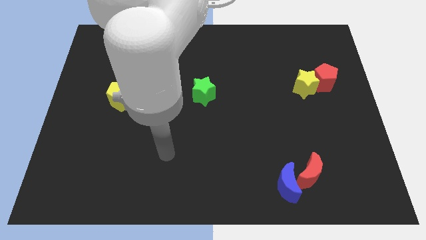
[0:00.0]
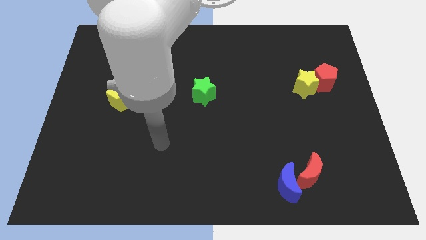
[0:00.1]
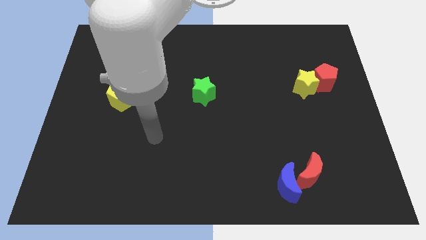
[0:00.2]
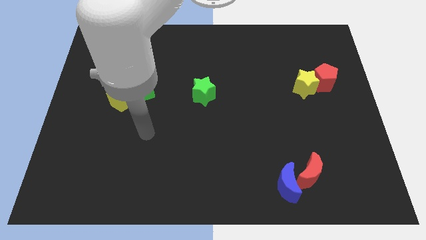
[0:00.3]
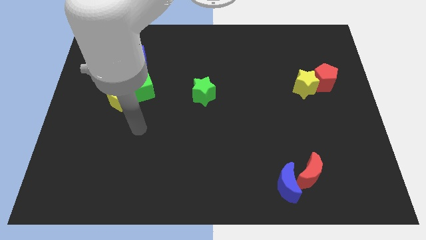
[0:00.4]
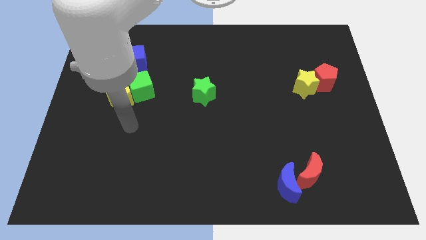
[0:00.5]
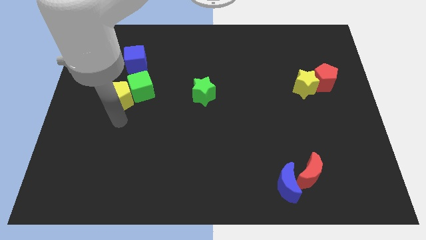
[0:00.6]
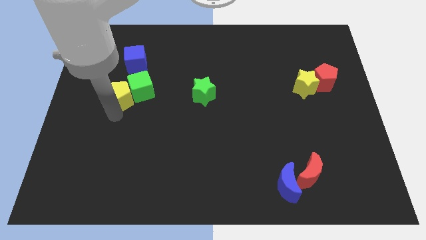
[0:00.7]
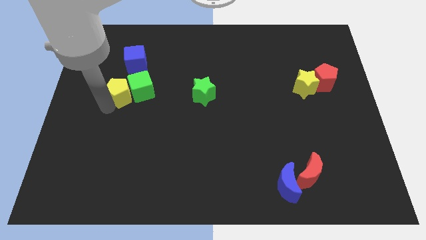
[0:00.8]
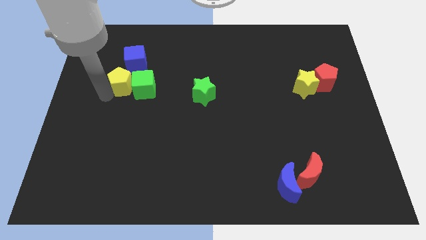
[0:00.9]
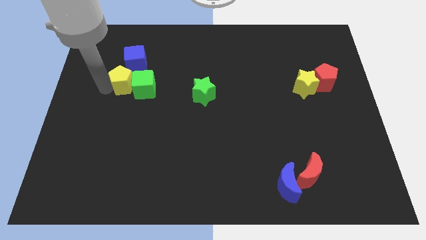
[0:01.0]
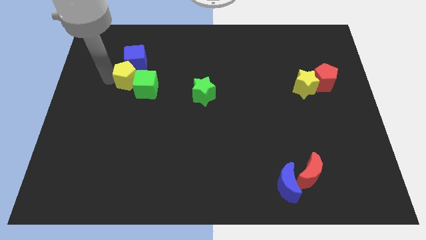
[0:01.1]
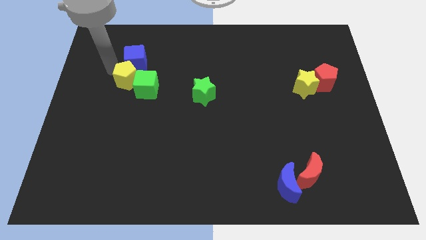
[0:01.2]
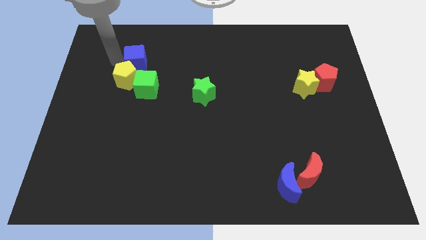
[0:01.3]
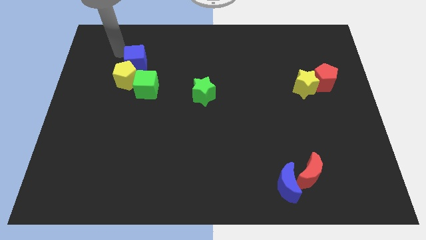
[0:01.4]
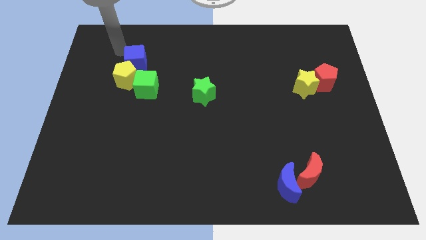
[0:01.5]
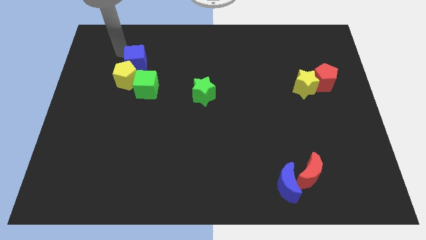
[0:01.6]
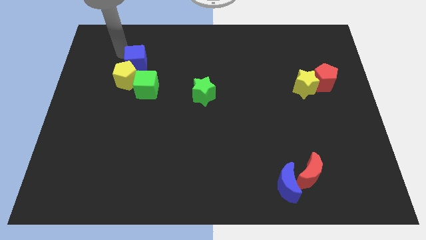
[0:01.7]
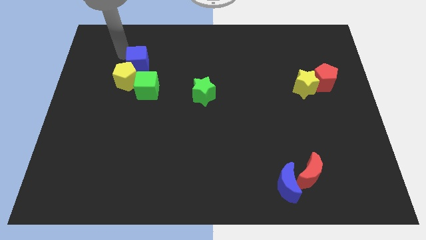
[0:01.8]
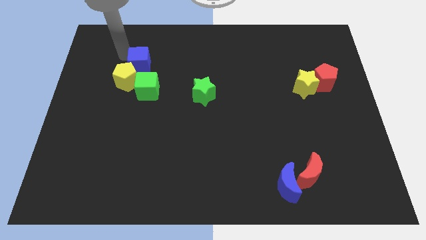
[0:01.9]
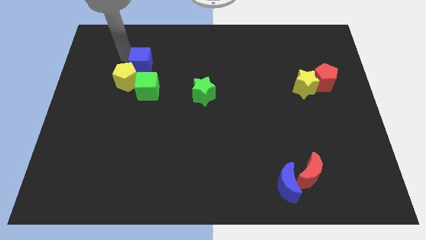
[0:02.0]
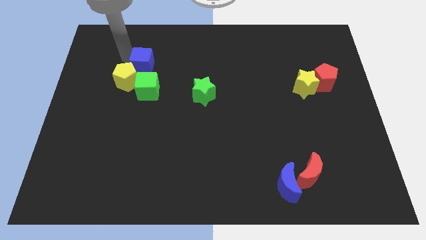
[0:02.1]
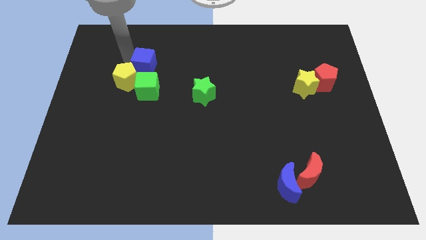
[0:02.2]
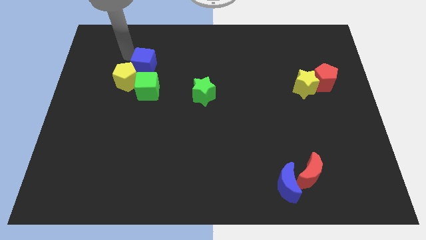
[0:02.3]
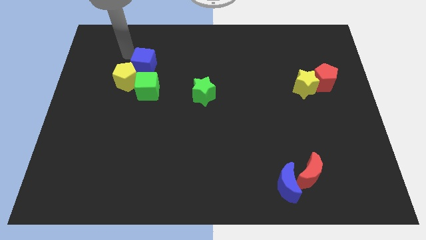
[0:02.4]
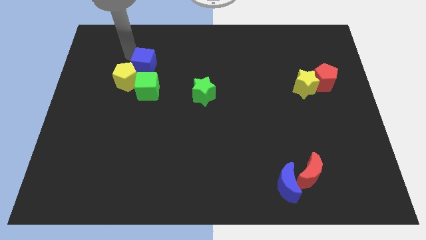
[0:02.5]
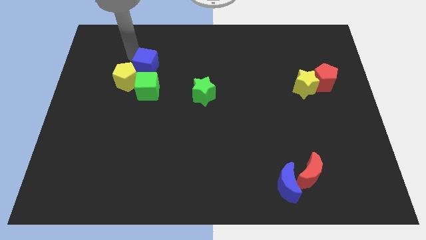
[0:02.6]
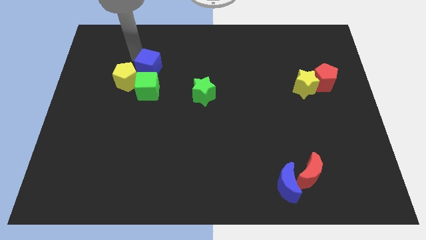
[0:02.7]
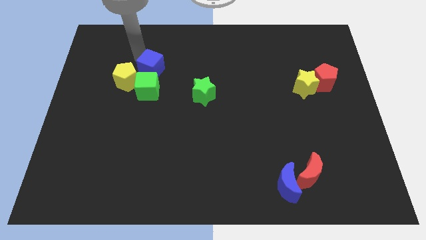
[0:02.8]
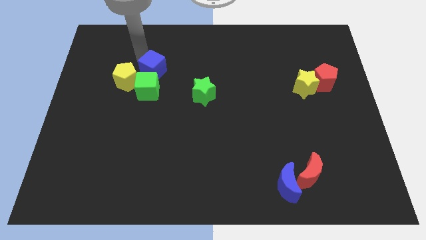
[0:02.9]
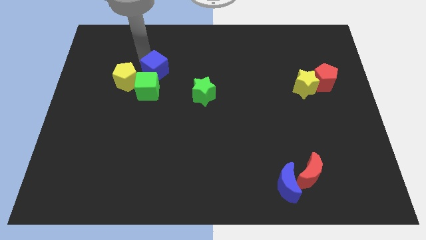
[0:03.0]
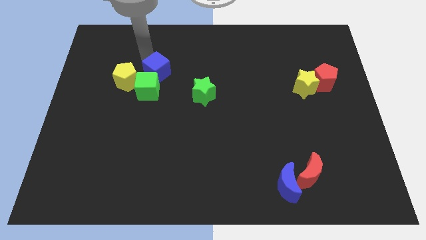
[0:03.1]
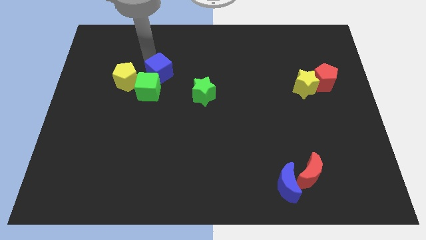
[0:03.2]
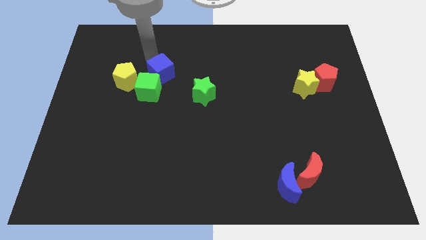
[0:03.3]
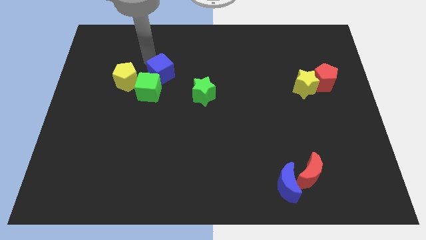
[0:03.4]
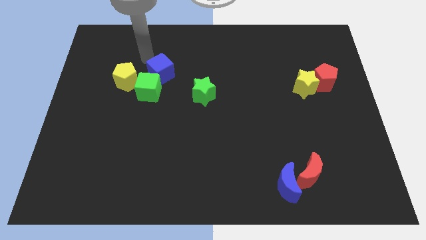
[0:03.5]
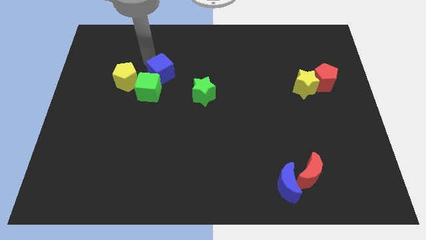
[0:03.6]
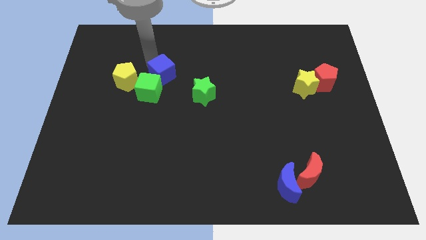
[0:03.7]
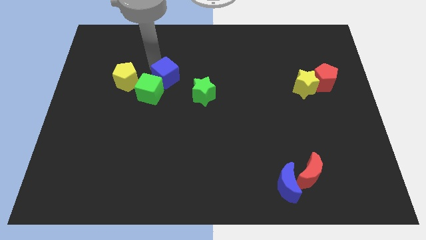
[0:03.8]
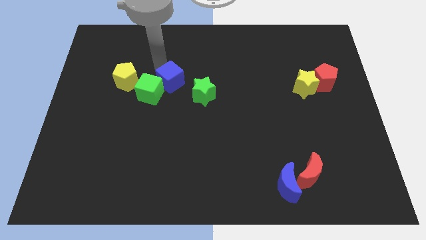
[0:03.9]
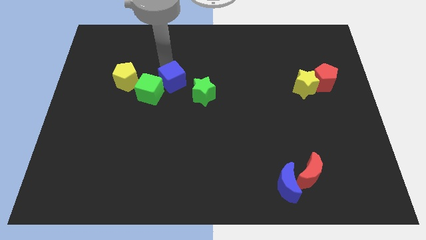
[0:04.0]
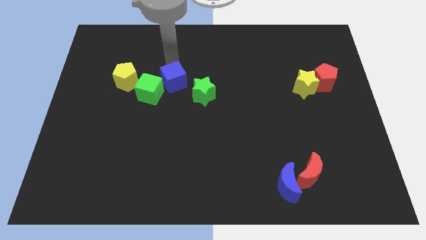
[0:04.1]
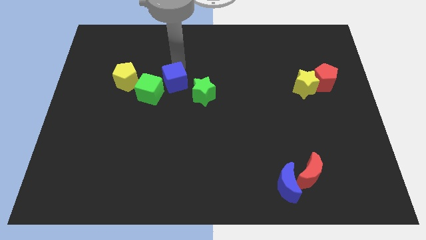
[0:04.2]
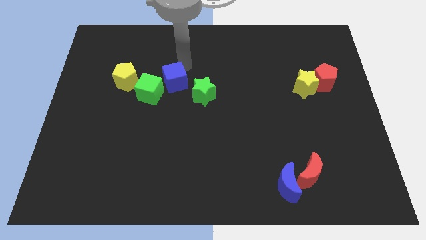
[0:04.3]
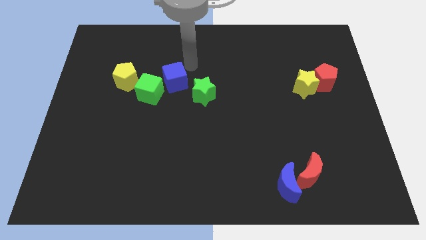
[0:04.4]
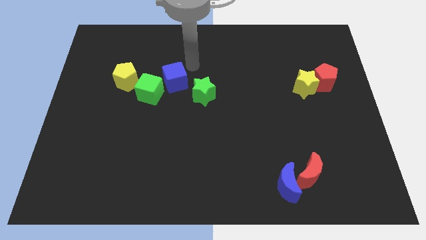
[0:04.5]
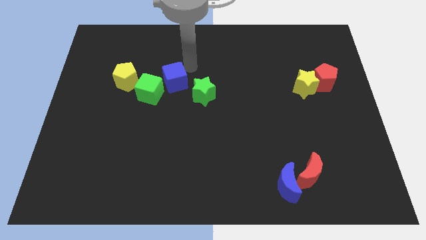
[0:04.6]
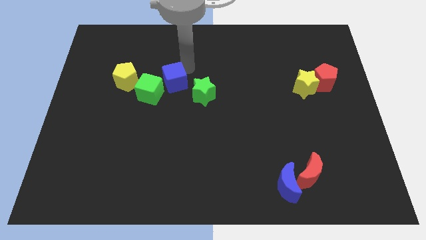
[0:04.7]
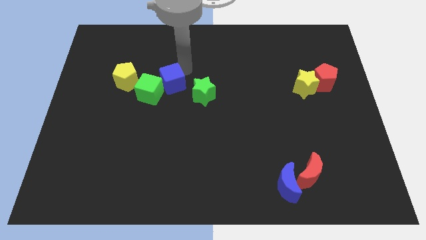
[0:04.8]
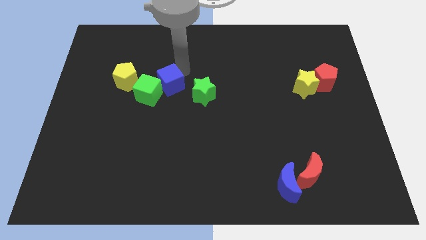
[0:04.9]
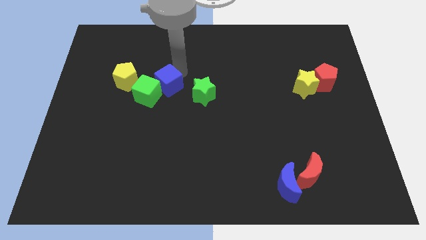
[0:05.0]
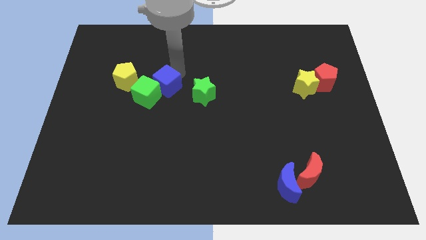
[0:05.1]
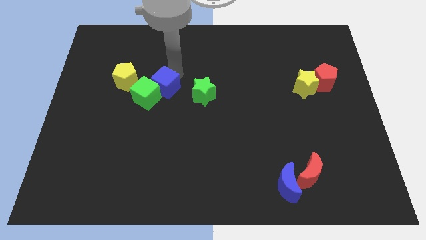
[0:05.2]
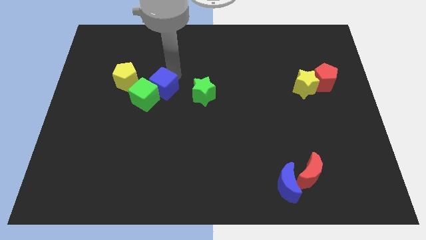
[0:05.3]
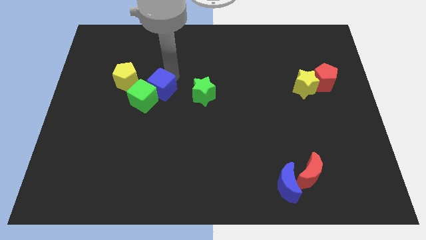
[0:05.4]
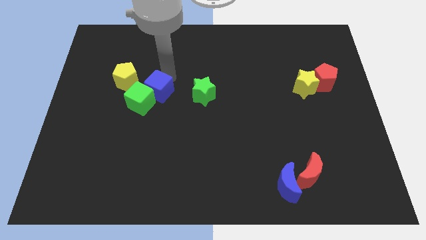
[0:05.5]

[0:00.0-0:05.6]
slide the blue cube a little downwards

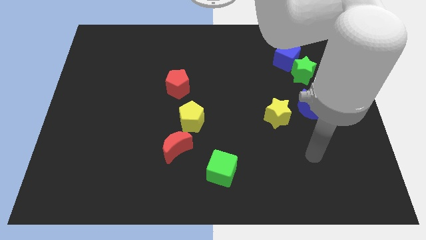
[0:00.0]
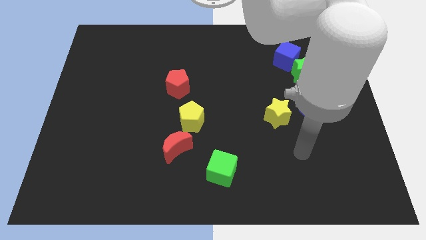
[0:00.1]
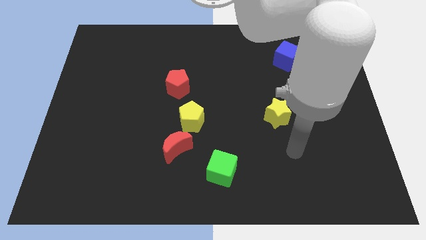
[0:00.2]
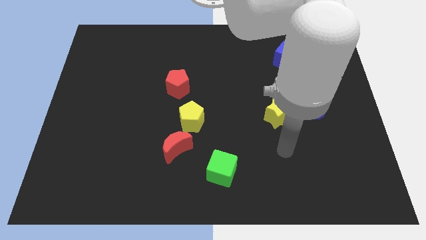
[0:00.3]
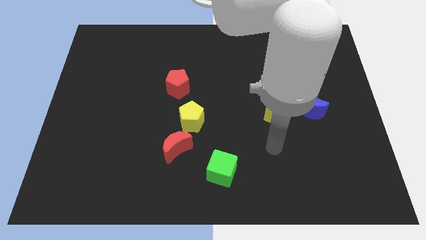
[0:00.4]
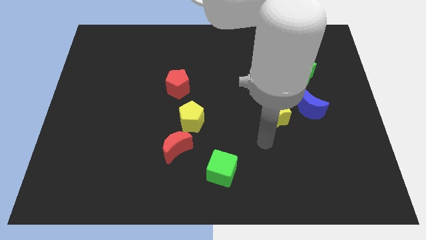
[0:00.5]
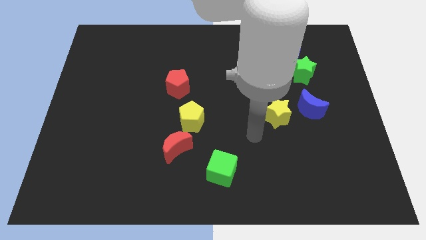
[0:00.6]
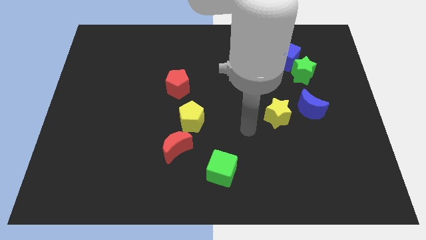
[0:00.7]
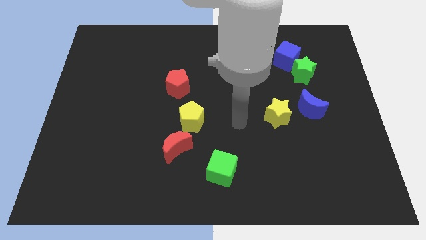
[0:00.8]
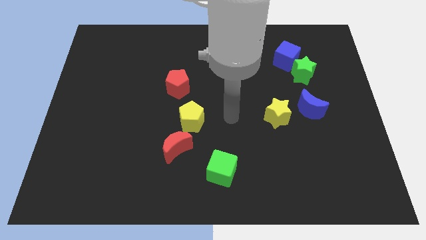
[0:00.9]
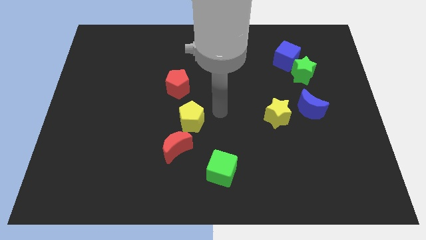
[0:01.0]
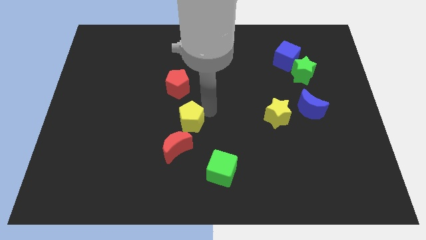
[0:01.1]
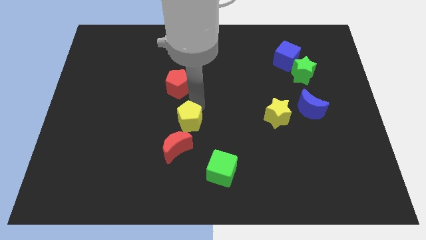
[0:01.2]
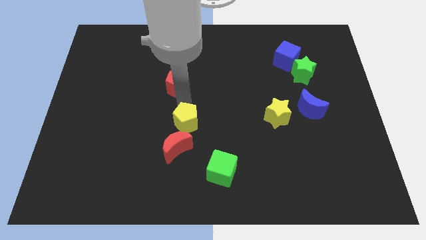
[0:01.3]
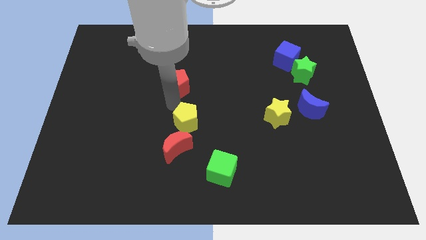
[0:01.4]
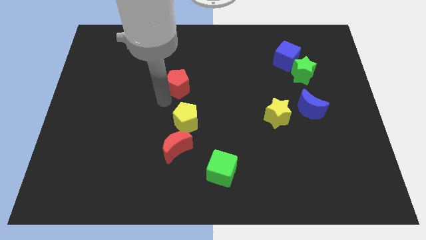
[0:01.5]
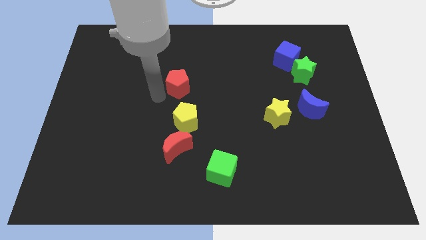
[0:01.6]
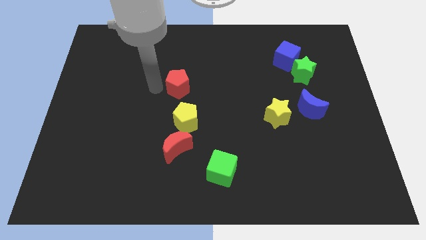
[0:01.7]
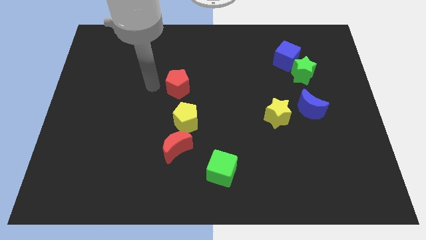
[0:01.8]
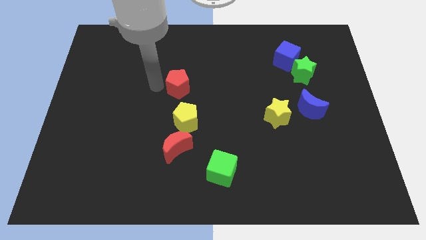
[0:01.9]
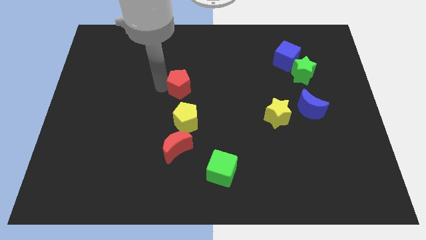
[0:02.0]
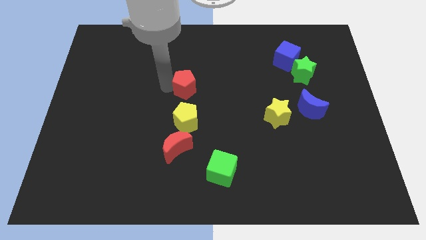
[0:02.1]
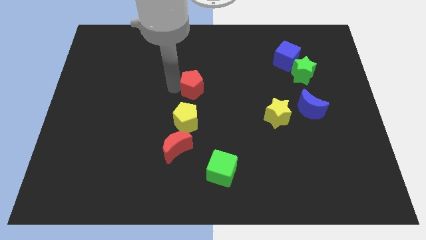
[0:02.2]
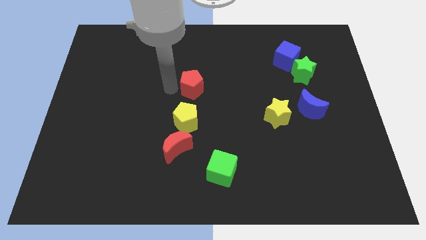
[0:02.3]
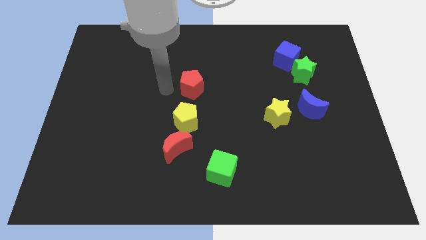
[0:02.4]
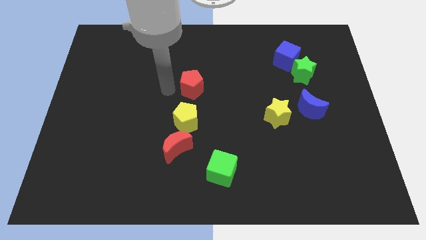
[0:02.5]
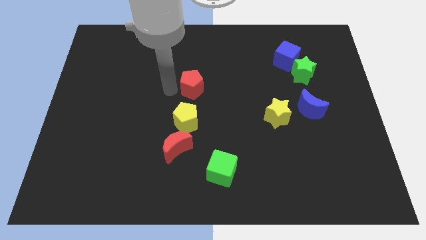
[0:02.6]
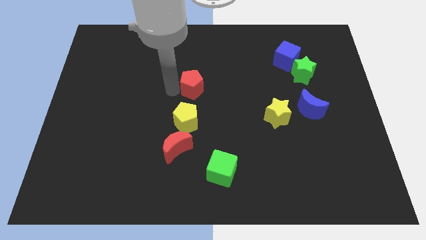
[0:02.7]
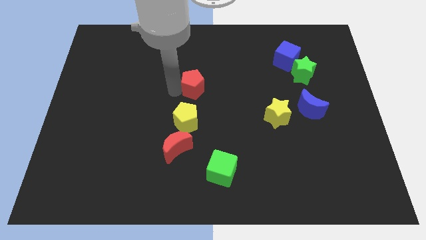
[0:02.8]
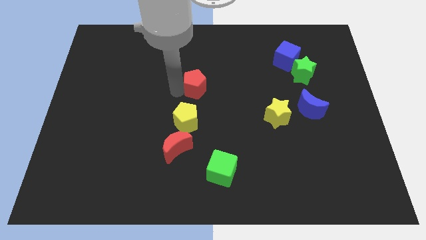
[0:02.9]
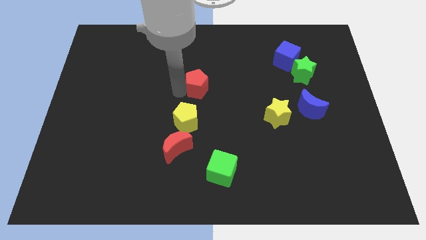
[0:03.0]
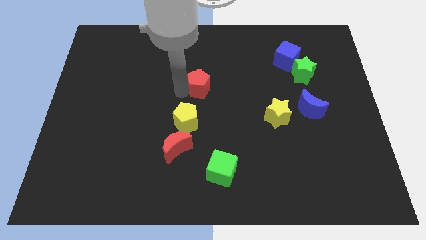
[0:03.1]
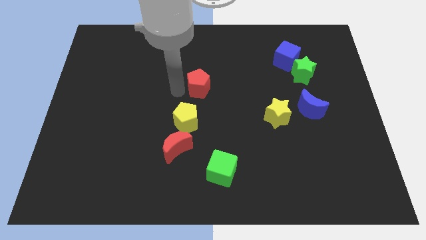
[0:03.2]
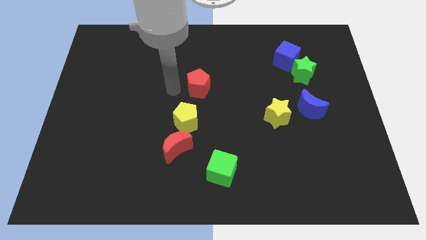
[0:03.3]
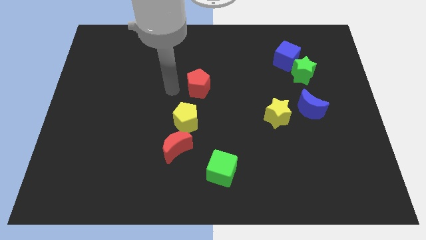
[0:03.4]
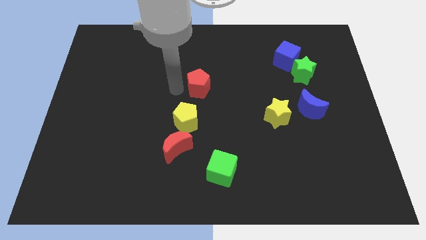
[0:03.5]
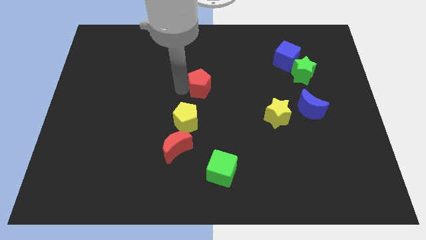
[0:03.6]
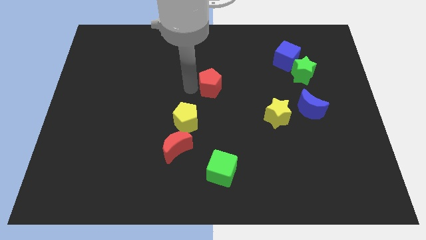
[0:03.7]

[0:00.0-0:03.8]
slightly slide the red pentagon right
